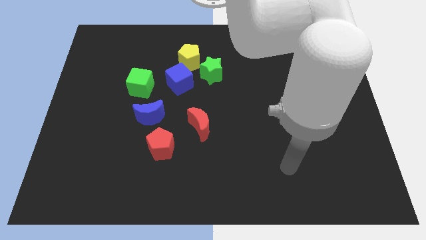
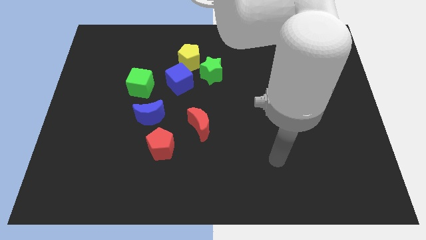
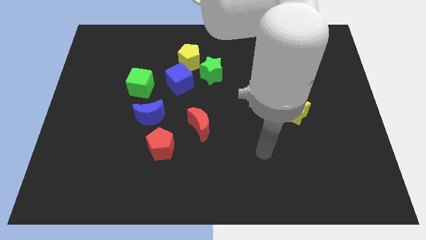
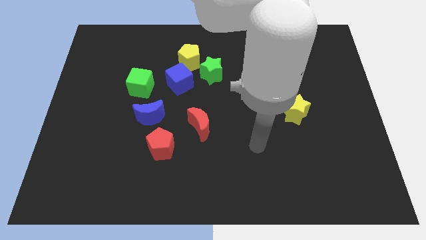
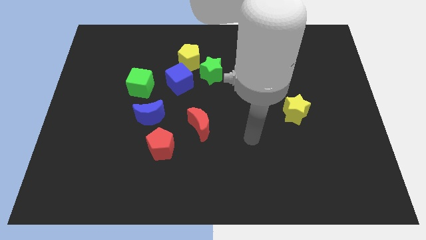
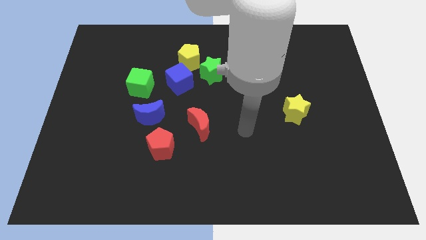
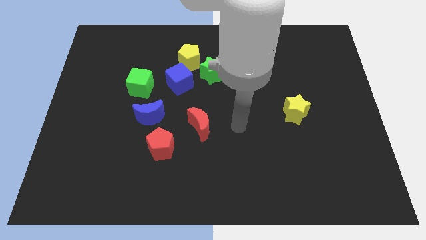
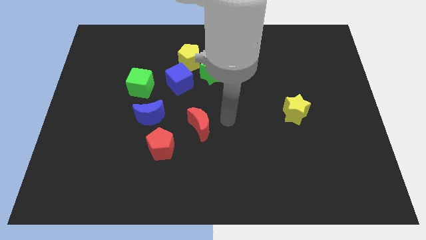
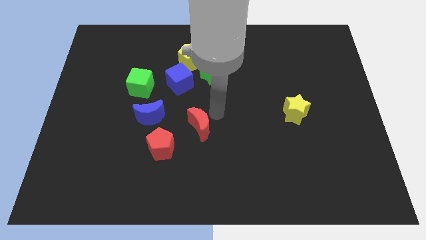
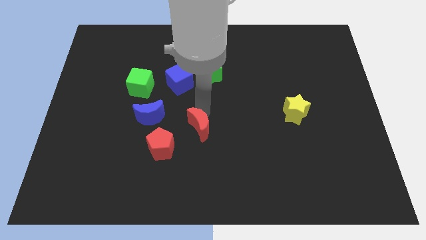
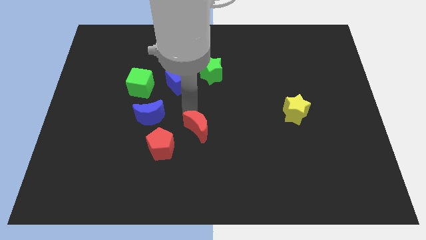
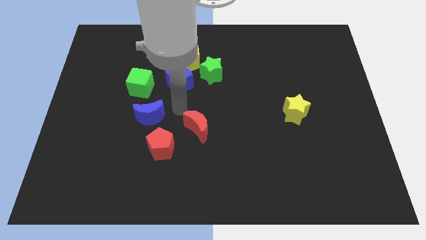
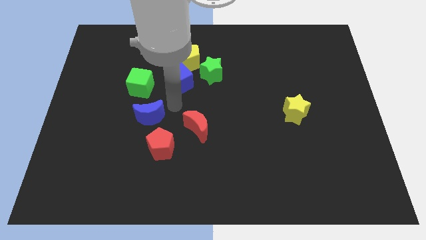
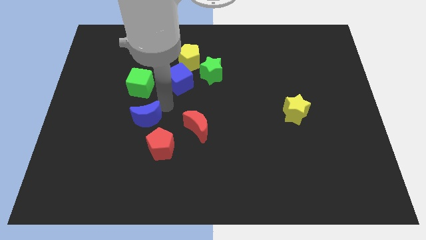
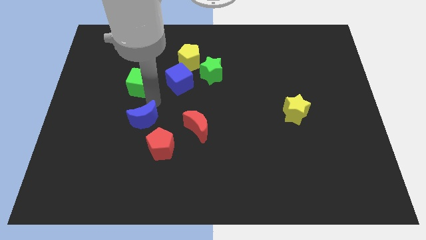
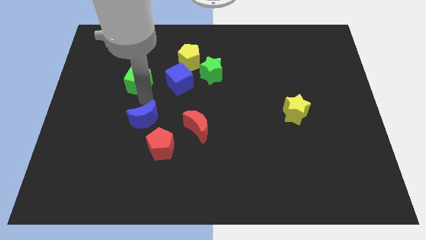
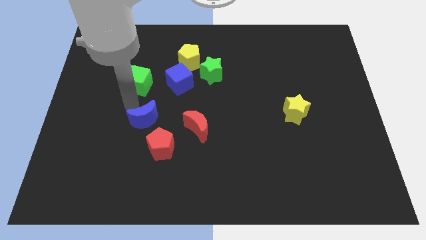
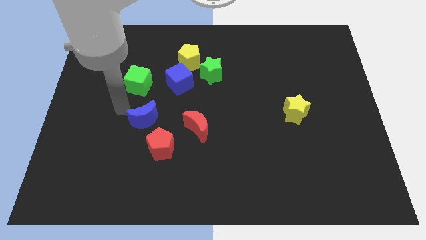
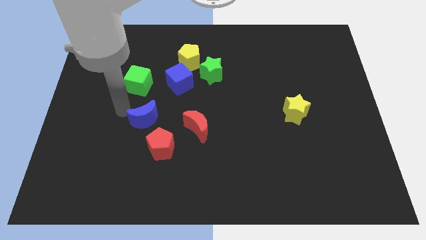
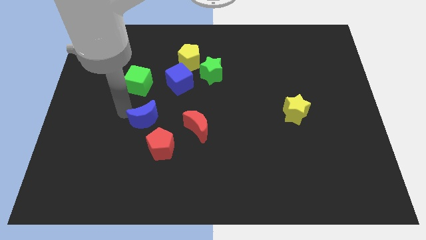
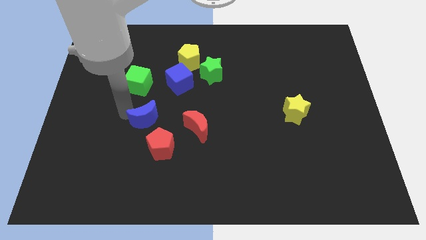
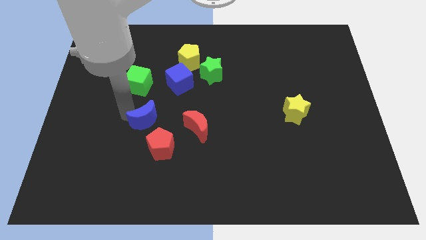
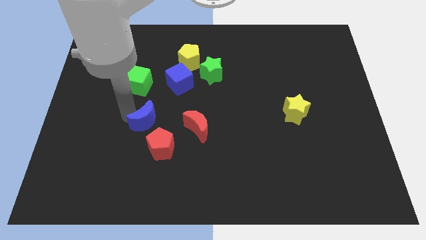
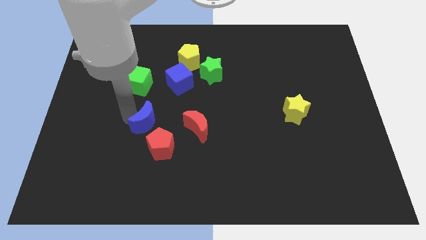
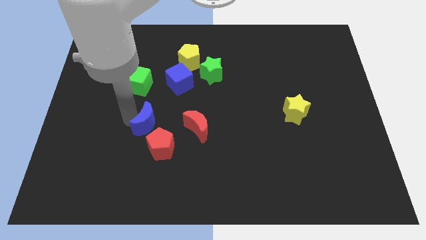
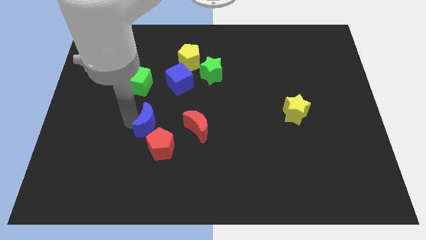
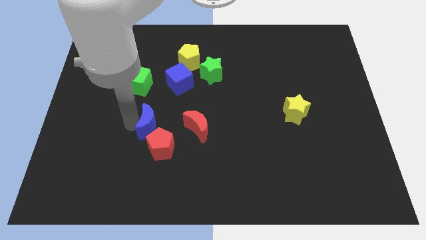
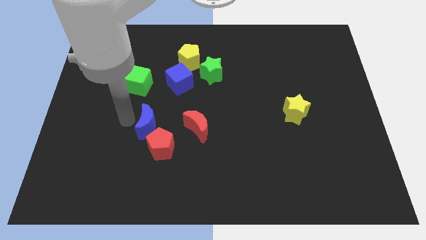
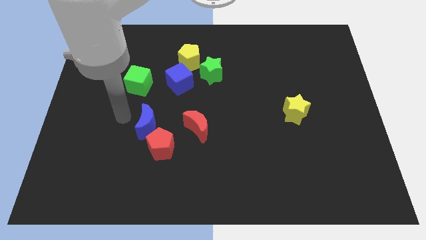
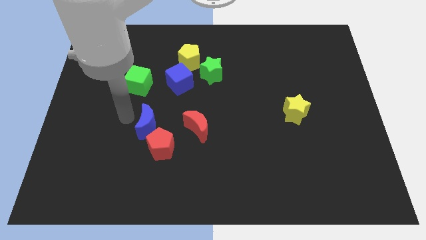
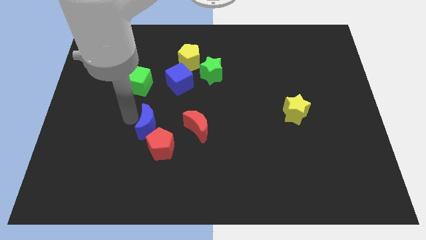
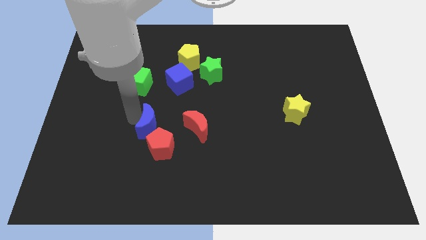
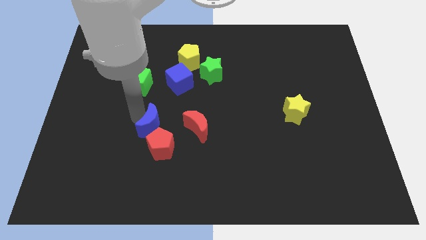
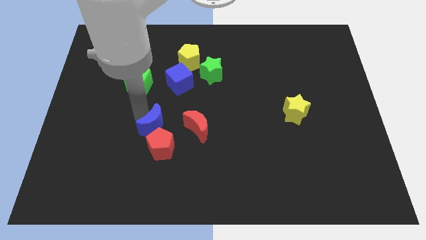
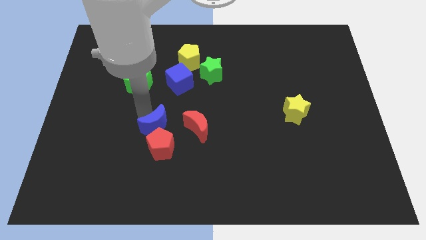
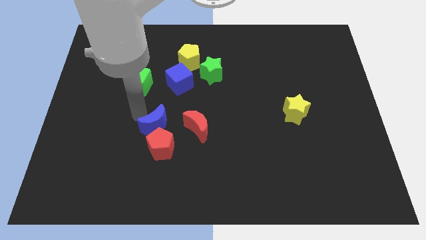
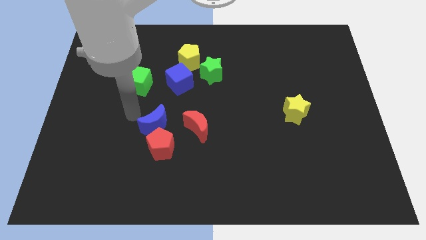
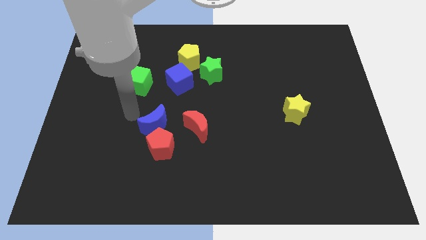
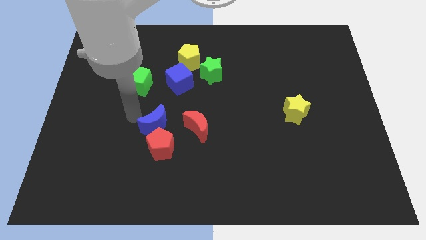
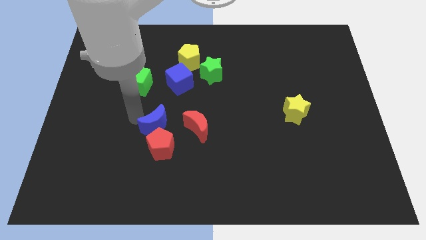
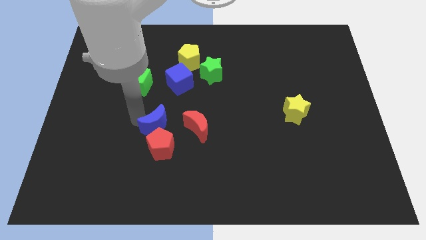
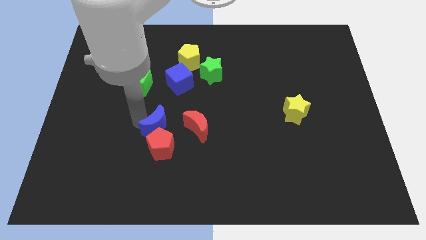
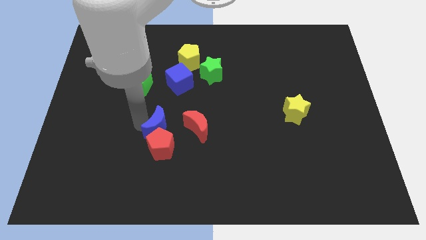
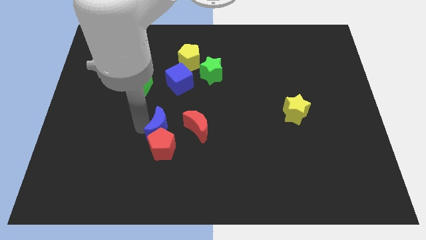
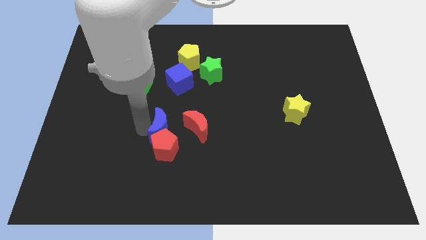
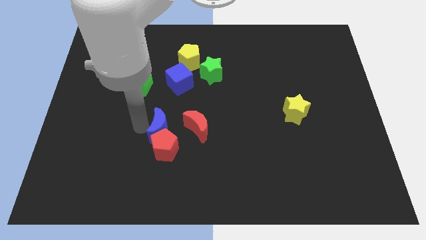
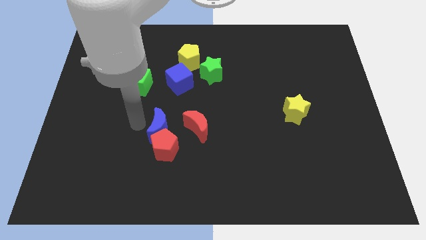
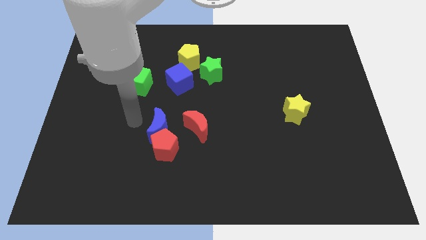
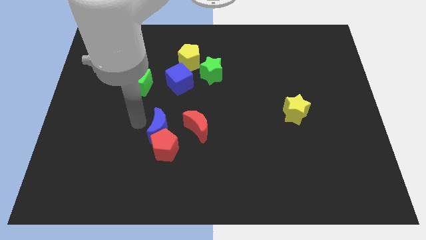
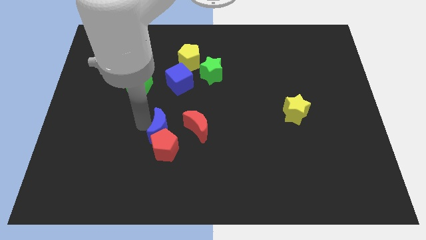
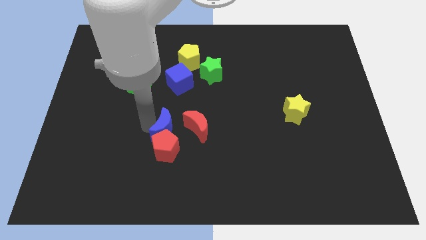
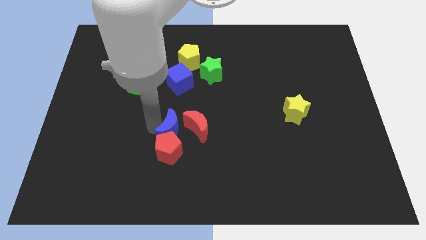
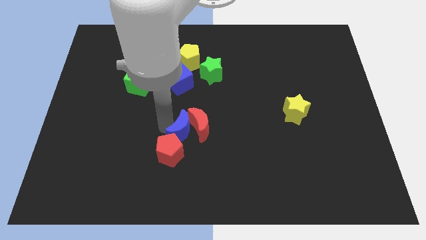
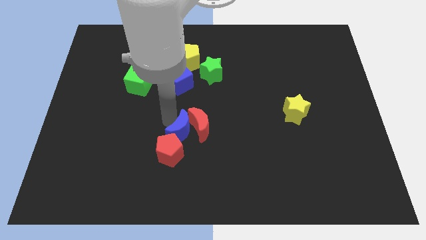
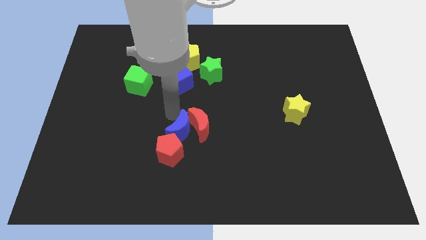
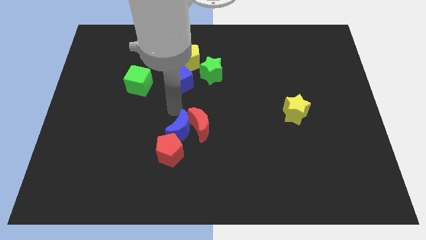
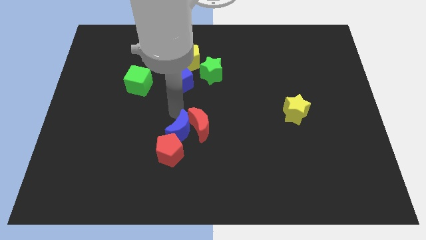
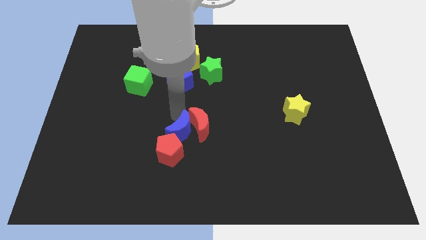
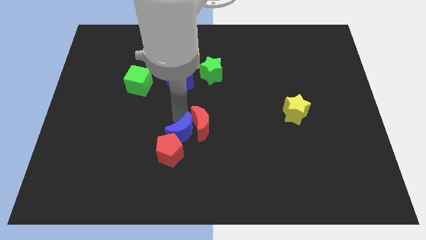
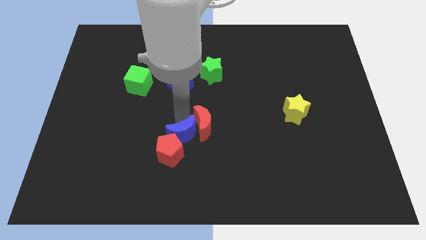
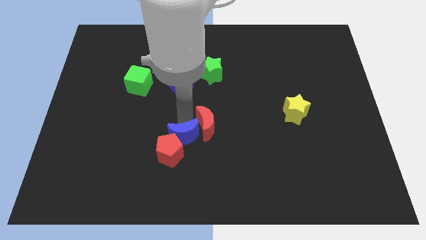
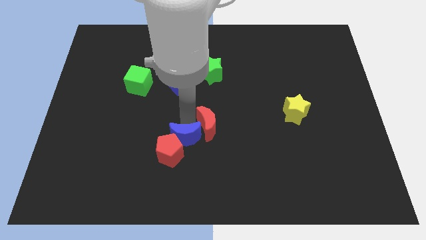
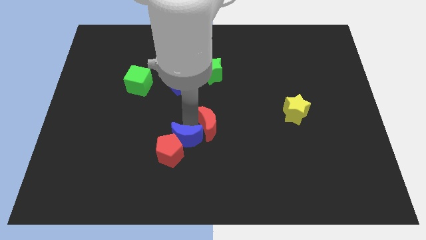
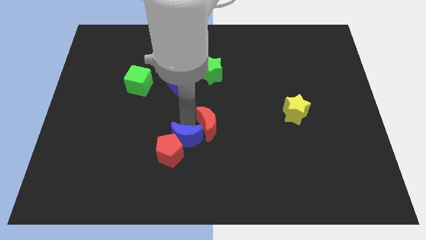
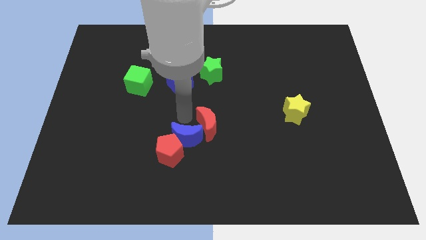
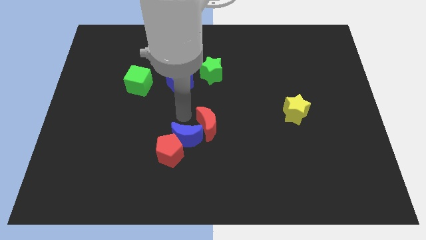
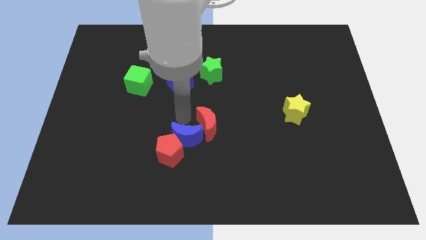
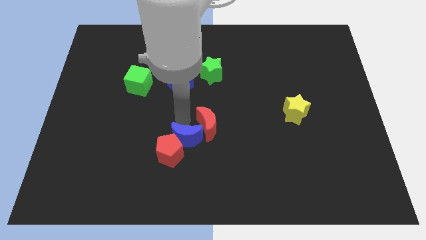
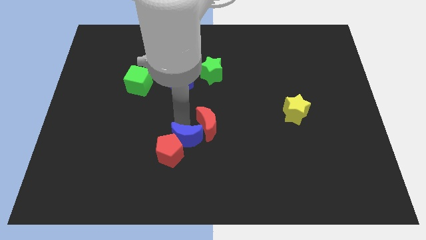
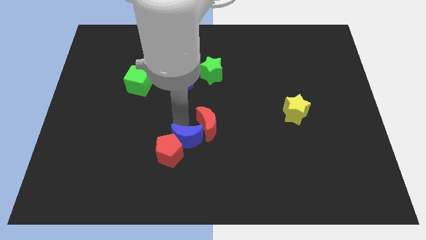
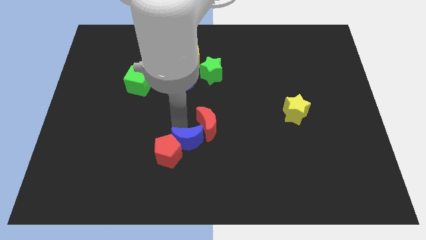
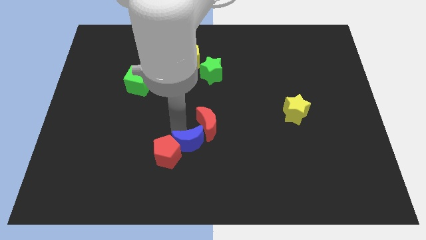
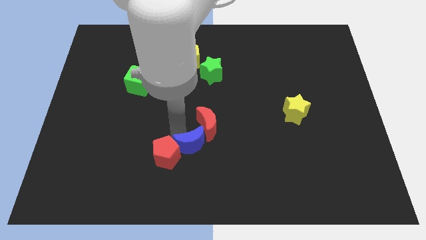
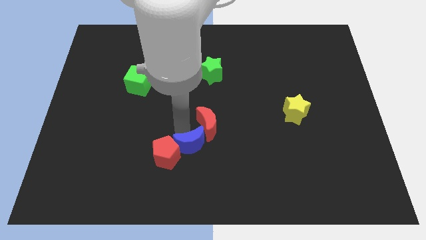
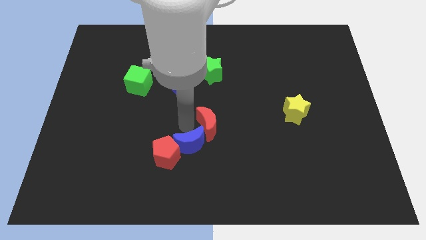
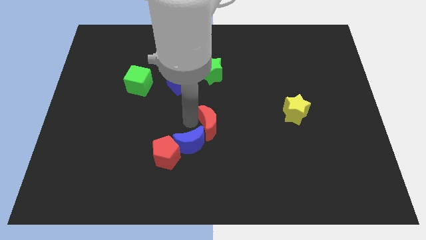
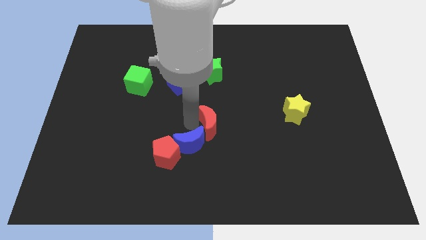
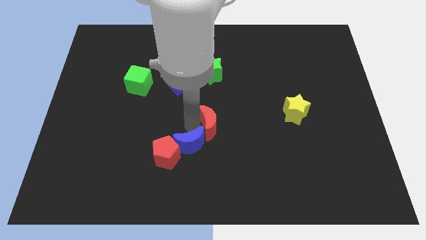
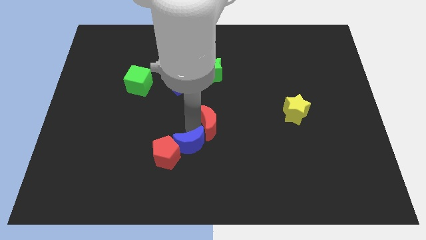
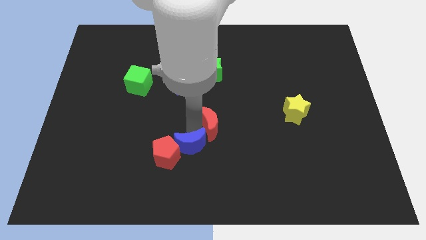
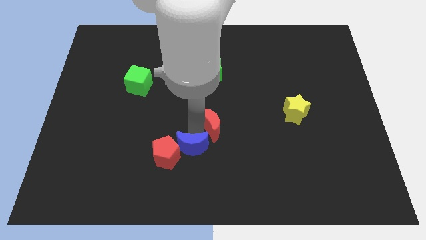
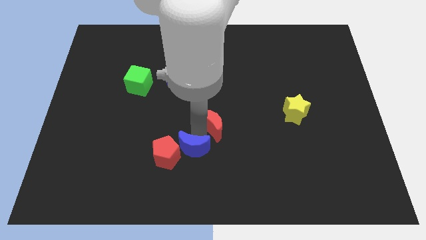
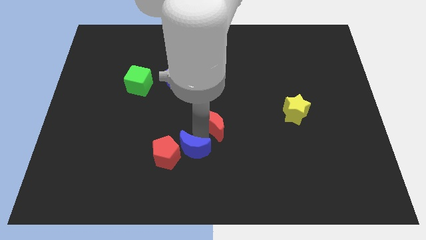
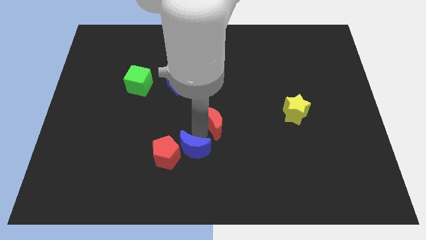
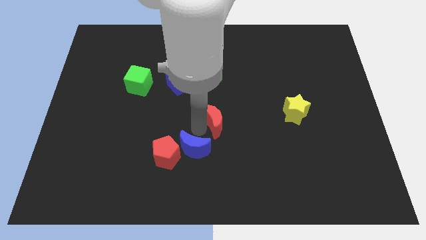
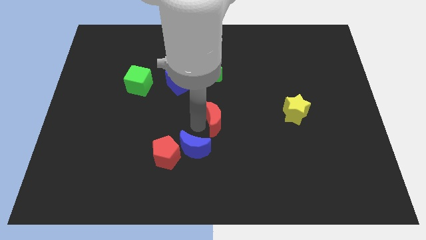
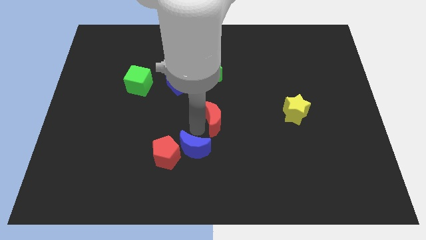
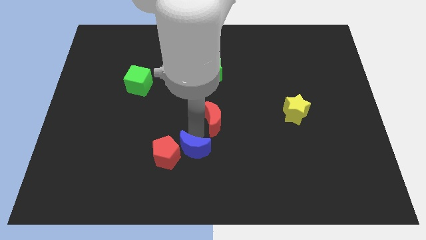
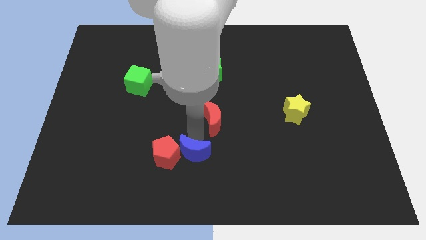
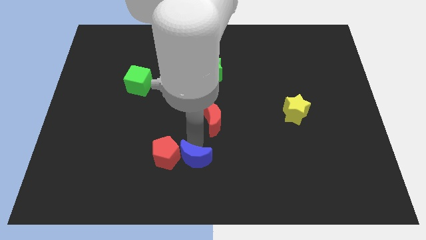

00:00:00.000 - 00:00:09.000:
put the blue moon to the bottom side
